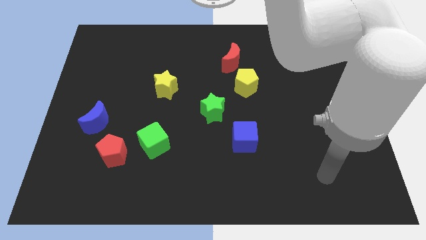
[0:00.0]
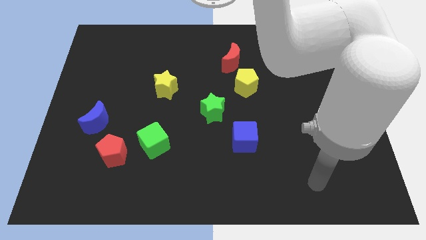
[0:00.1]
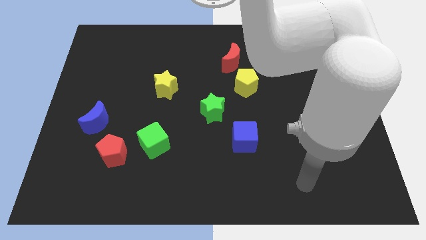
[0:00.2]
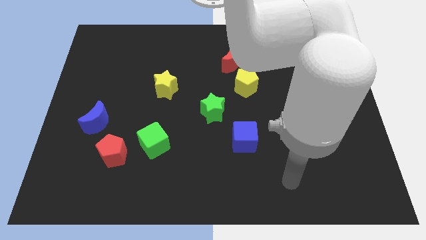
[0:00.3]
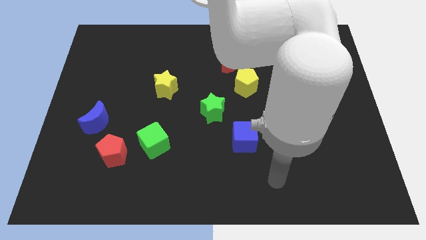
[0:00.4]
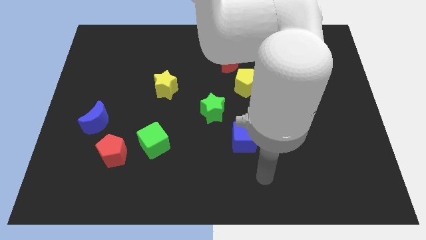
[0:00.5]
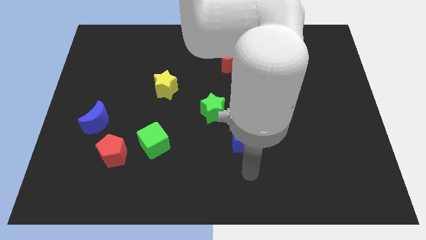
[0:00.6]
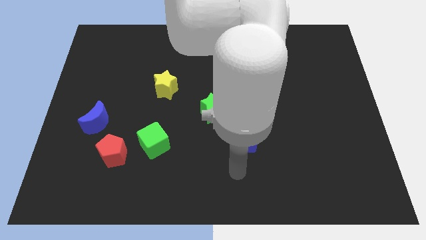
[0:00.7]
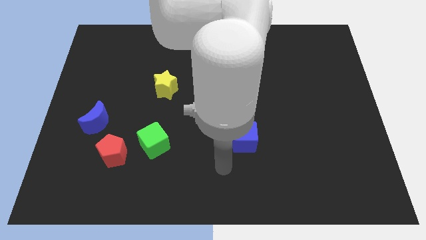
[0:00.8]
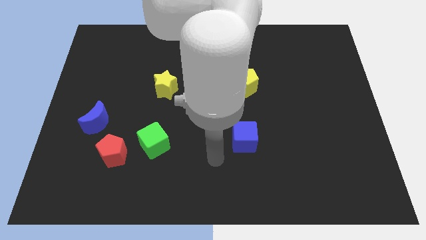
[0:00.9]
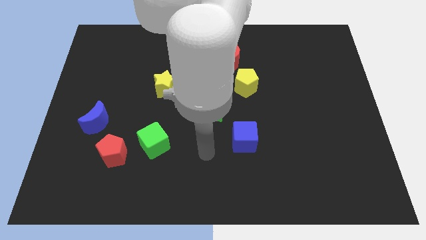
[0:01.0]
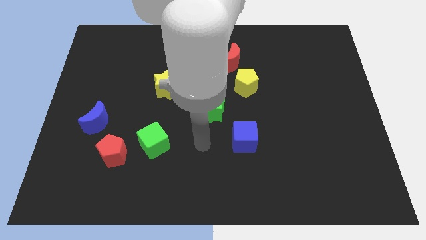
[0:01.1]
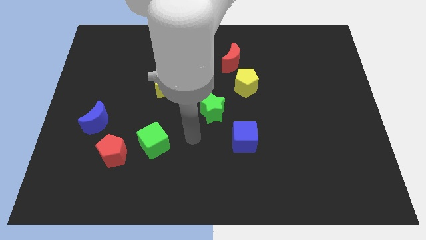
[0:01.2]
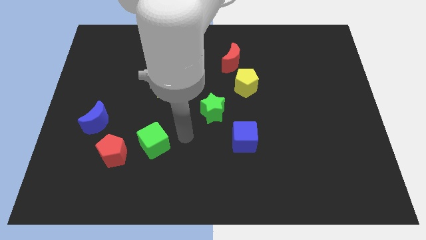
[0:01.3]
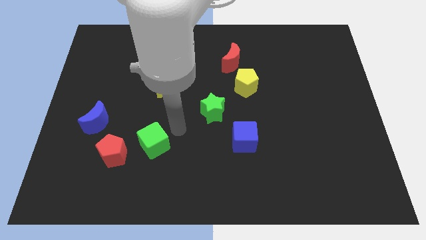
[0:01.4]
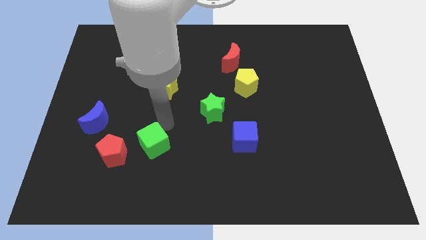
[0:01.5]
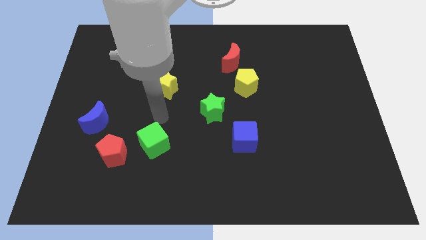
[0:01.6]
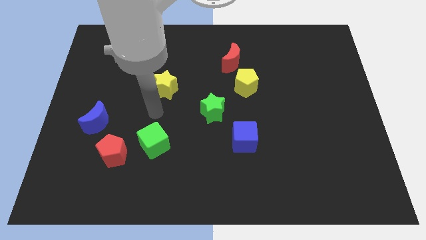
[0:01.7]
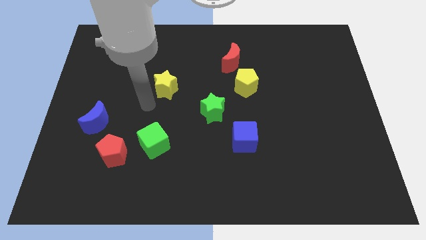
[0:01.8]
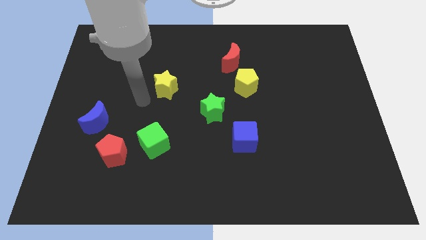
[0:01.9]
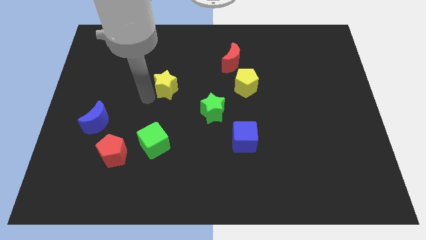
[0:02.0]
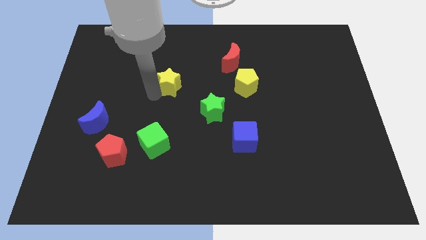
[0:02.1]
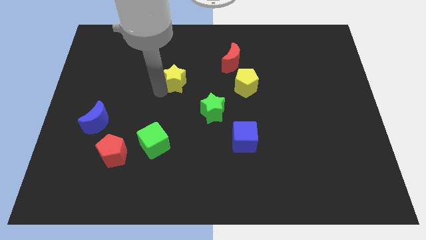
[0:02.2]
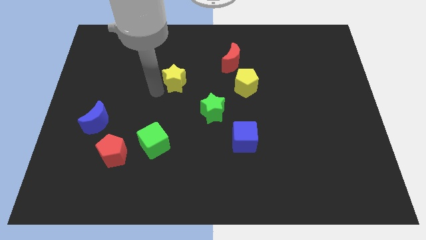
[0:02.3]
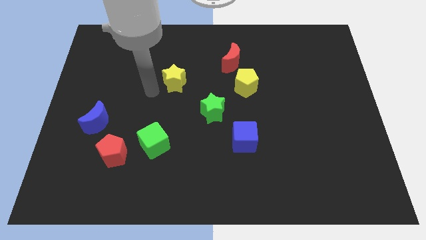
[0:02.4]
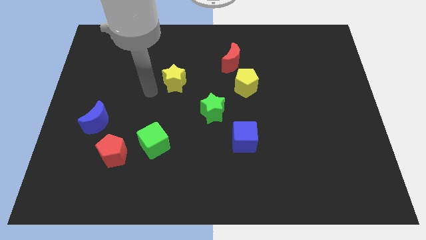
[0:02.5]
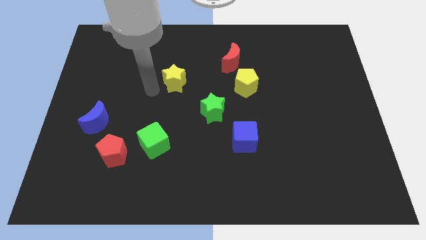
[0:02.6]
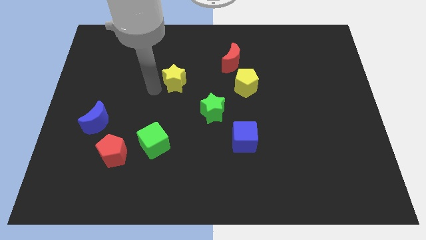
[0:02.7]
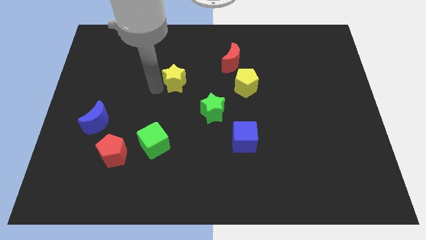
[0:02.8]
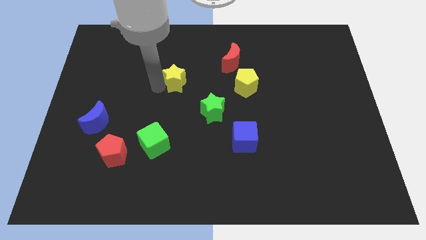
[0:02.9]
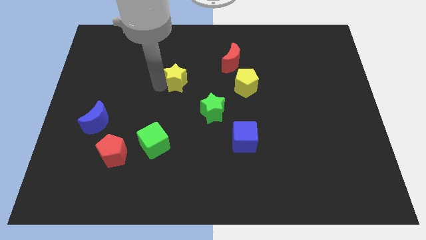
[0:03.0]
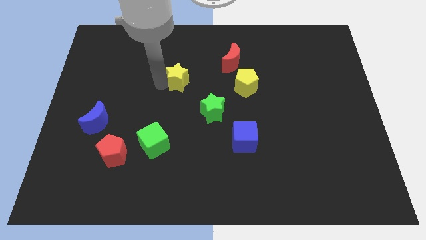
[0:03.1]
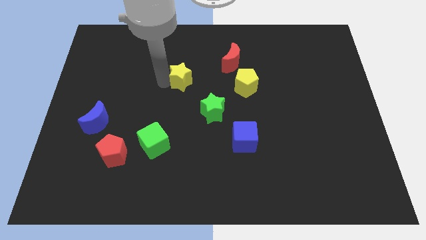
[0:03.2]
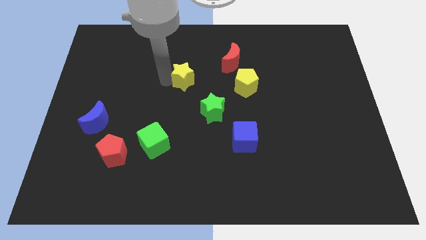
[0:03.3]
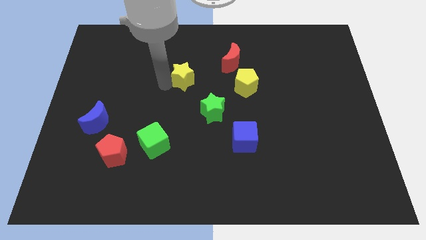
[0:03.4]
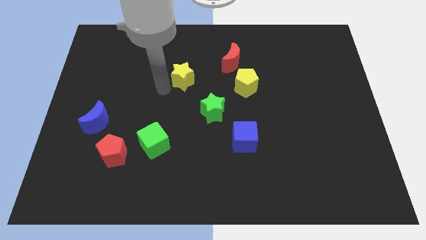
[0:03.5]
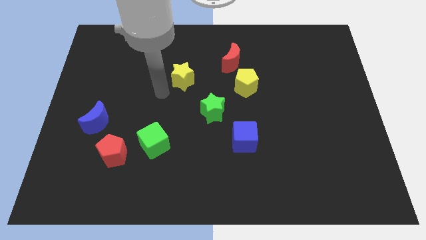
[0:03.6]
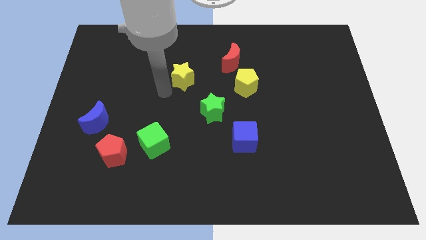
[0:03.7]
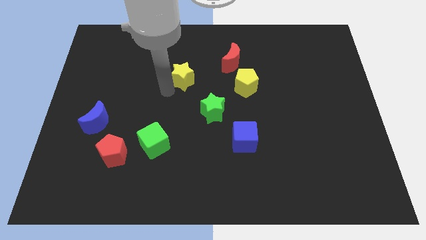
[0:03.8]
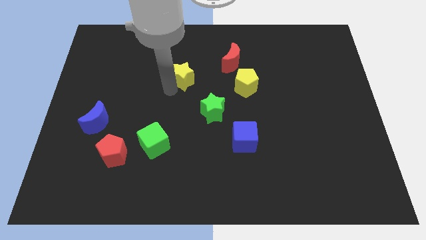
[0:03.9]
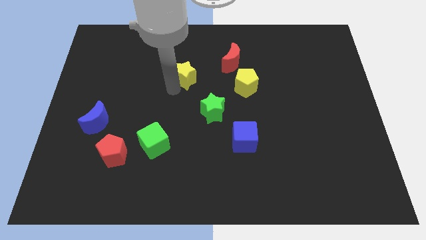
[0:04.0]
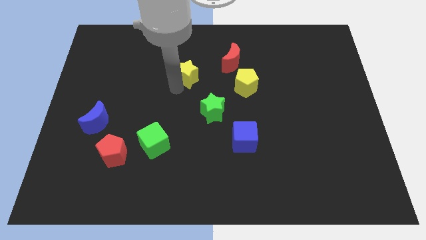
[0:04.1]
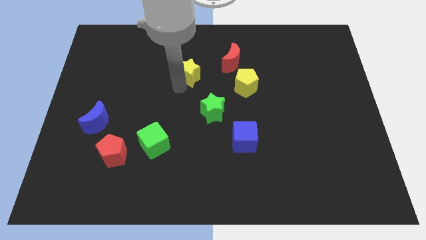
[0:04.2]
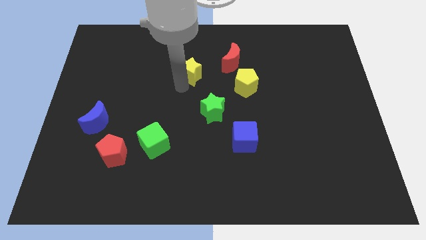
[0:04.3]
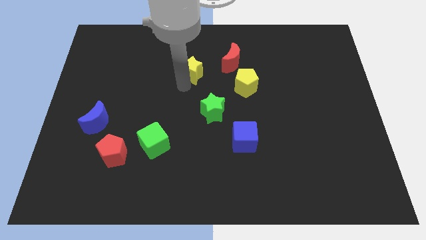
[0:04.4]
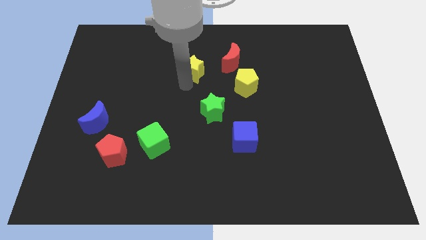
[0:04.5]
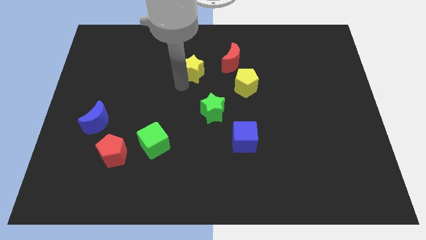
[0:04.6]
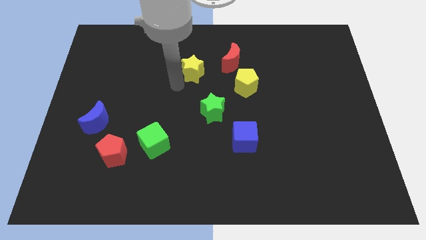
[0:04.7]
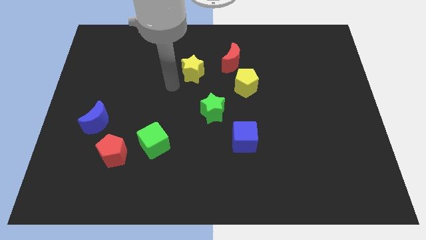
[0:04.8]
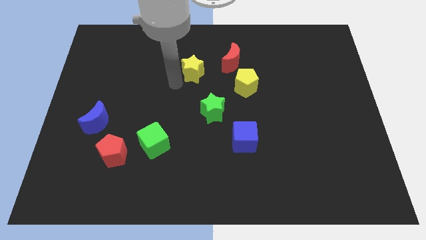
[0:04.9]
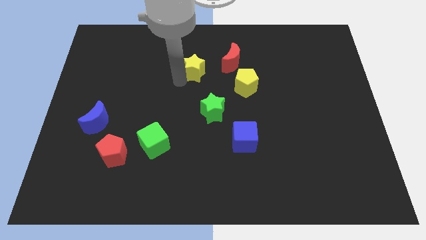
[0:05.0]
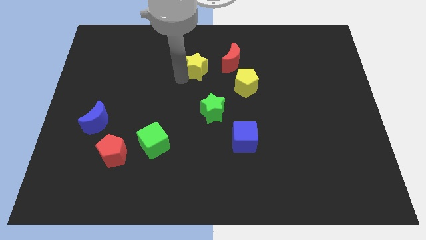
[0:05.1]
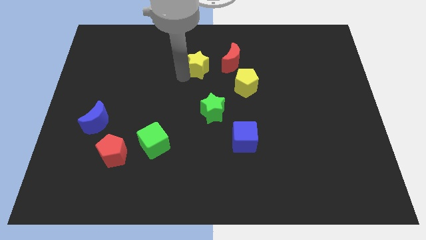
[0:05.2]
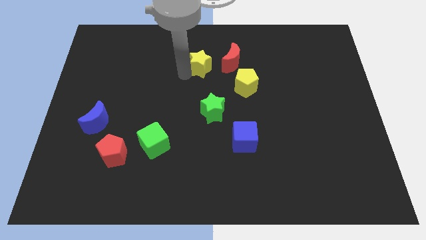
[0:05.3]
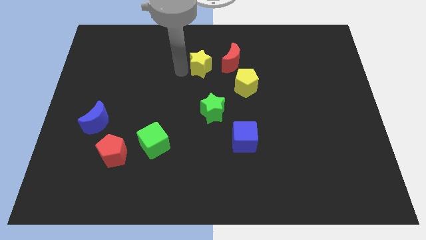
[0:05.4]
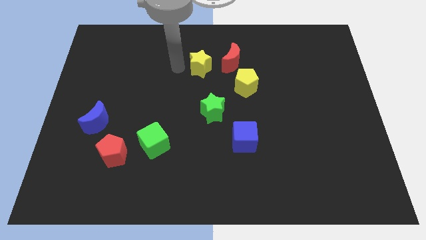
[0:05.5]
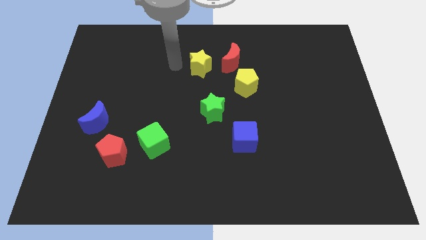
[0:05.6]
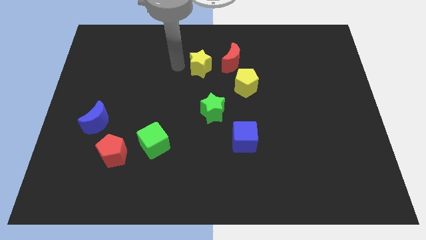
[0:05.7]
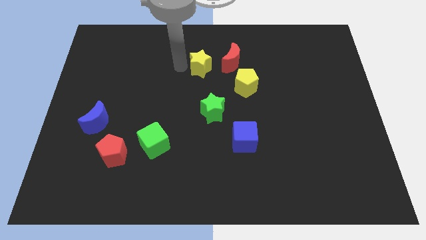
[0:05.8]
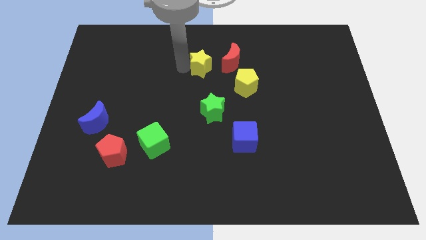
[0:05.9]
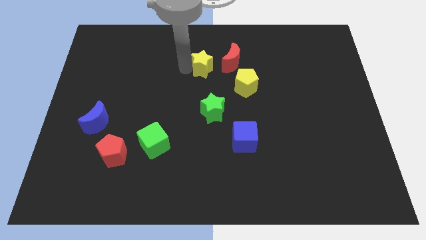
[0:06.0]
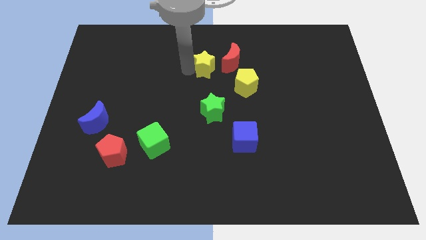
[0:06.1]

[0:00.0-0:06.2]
push the yellow star diagonally up and to the left of the yellow pentagon
